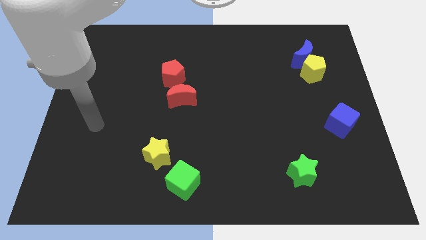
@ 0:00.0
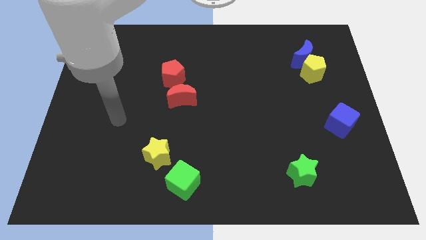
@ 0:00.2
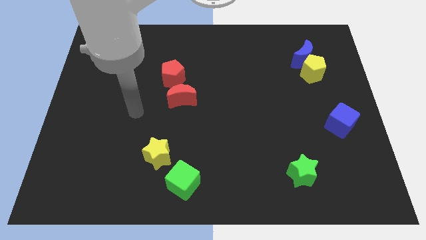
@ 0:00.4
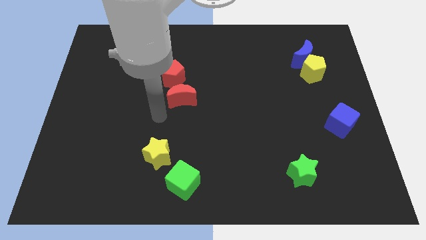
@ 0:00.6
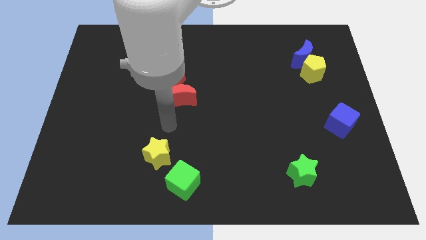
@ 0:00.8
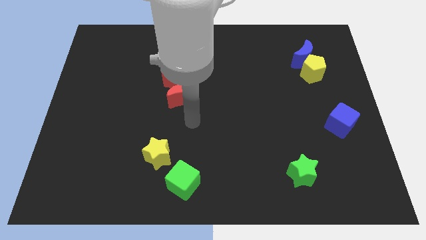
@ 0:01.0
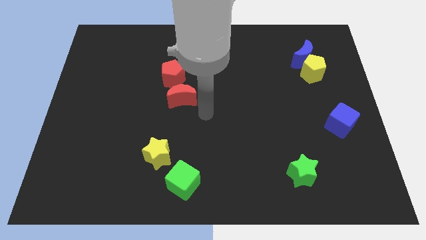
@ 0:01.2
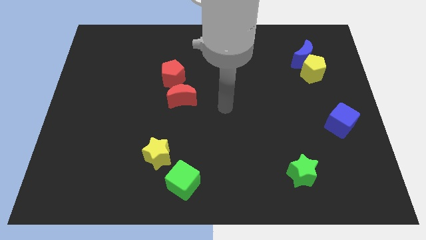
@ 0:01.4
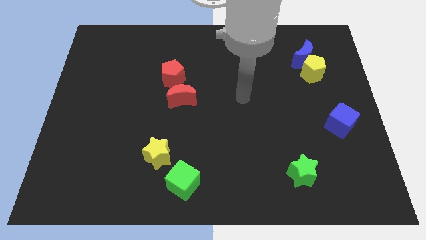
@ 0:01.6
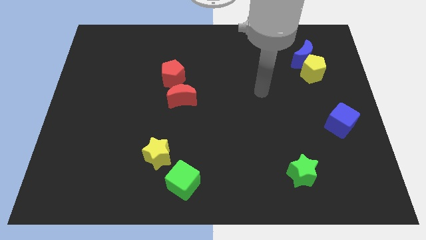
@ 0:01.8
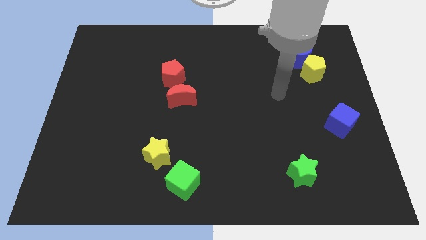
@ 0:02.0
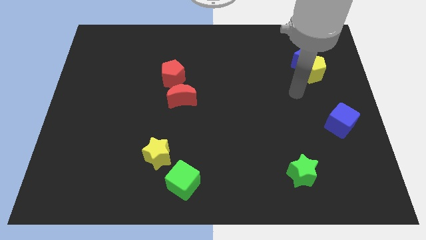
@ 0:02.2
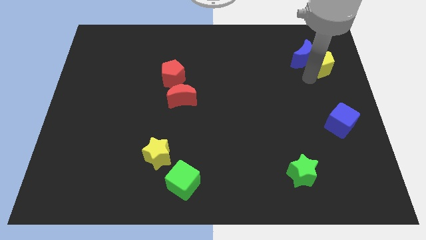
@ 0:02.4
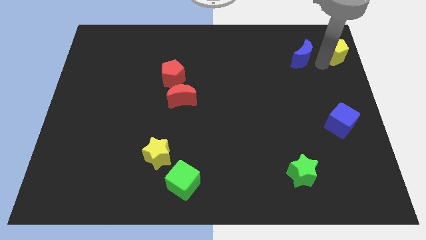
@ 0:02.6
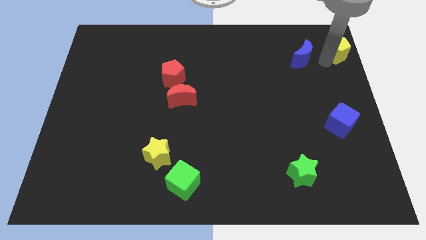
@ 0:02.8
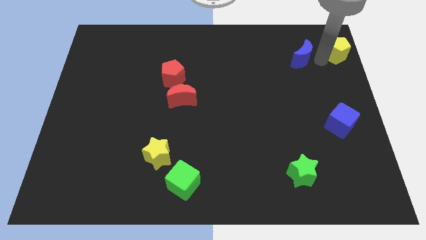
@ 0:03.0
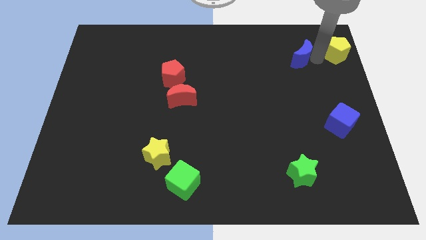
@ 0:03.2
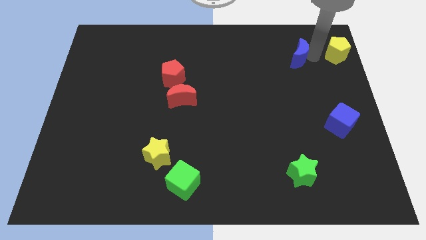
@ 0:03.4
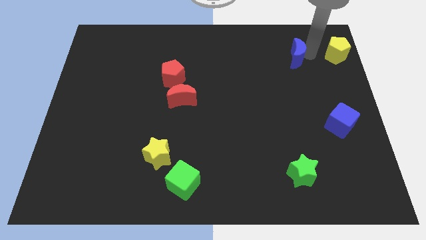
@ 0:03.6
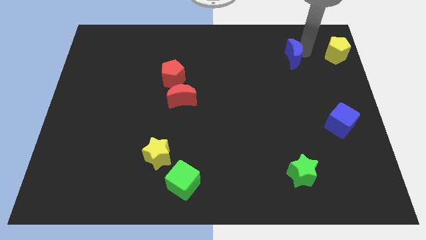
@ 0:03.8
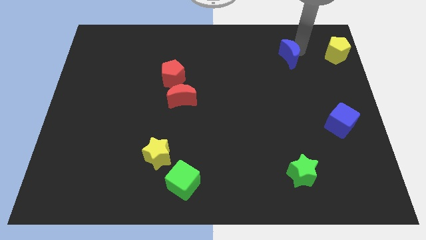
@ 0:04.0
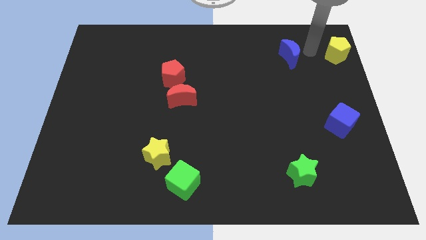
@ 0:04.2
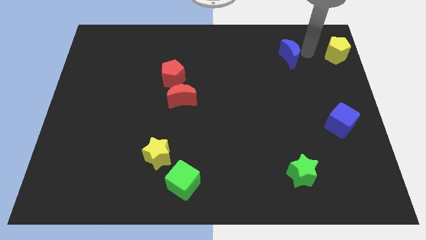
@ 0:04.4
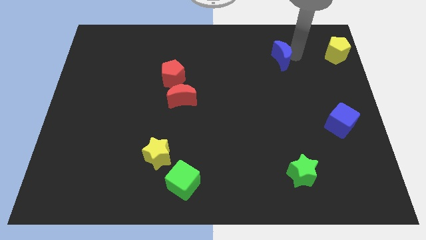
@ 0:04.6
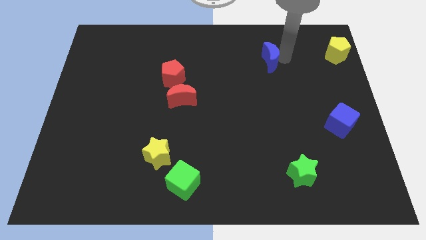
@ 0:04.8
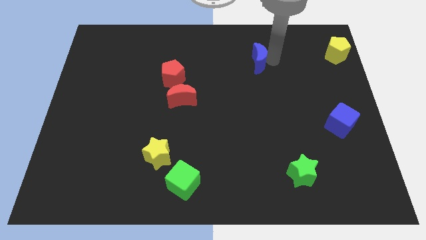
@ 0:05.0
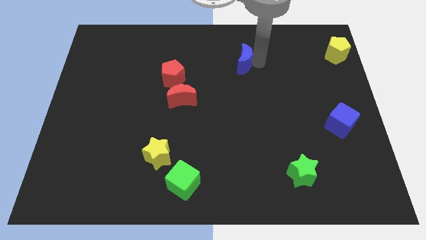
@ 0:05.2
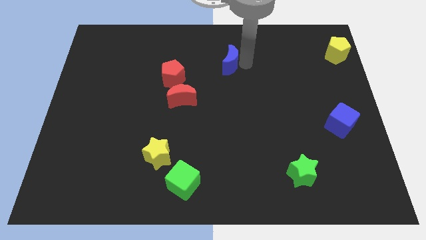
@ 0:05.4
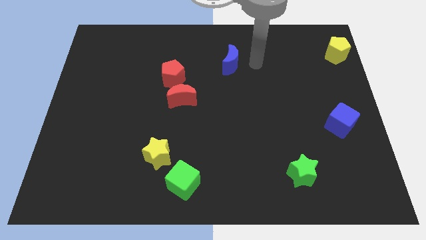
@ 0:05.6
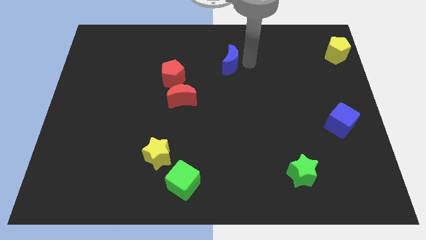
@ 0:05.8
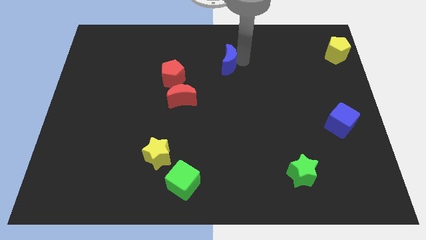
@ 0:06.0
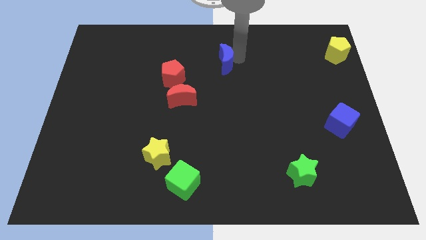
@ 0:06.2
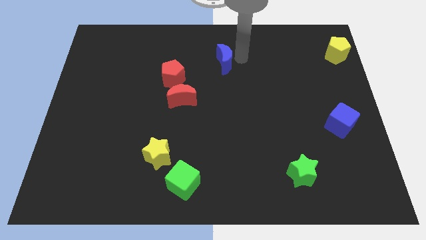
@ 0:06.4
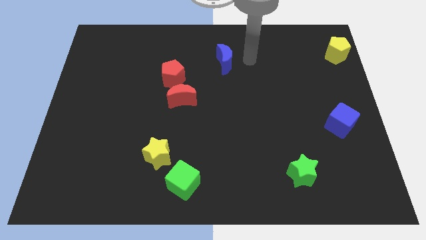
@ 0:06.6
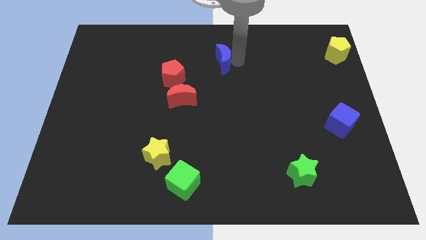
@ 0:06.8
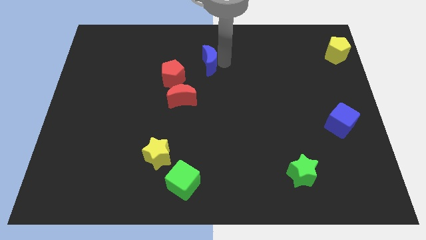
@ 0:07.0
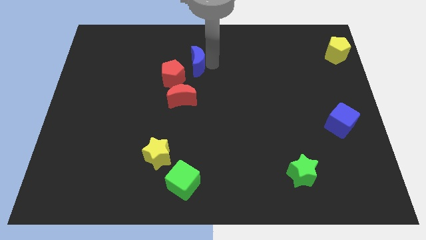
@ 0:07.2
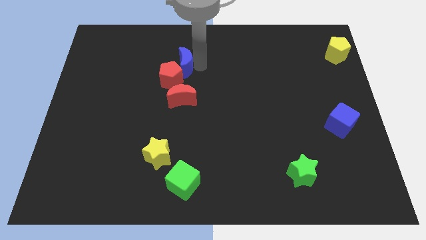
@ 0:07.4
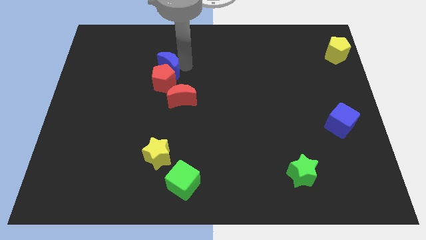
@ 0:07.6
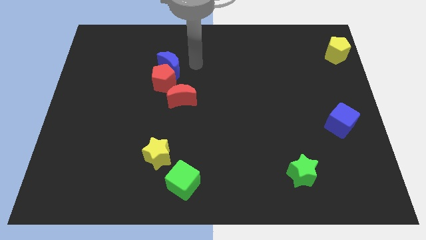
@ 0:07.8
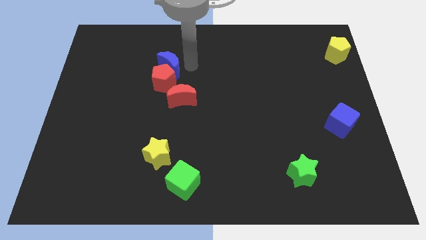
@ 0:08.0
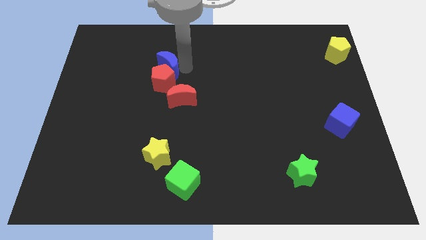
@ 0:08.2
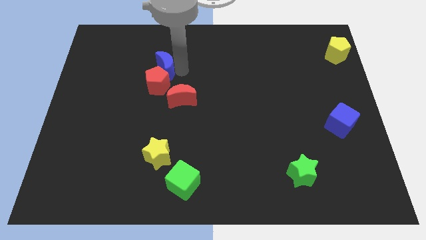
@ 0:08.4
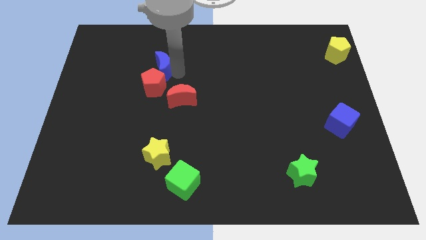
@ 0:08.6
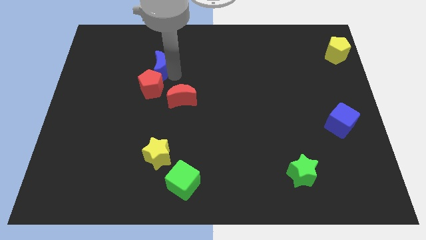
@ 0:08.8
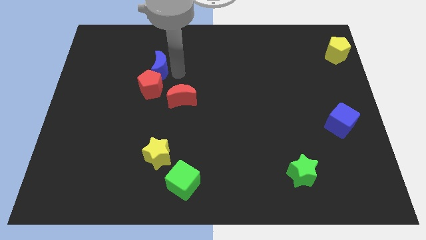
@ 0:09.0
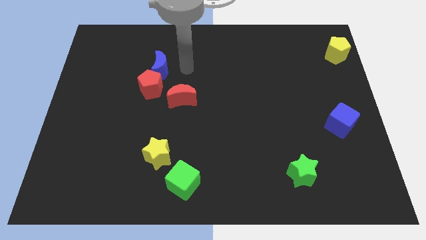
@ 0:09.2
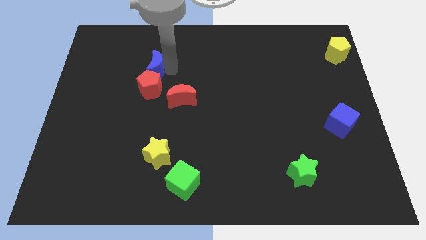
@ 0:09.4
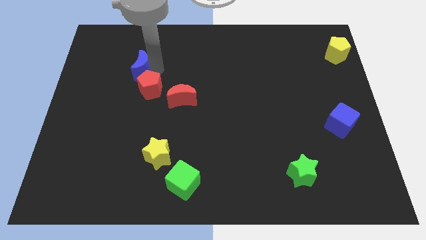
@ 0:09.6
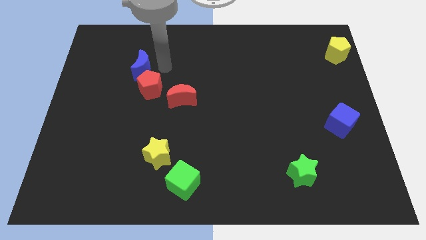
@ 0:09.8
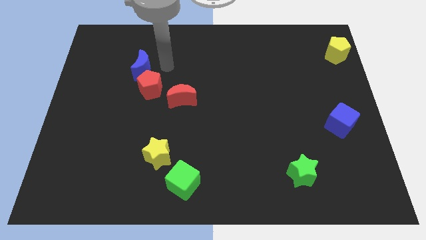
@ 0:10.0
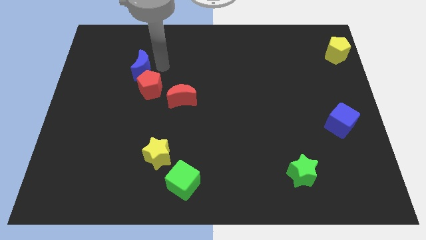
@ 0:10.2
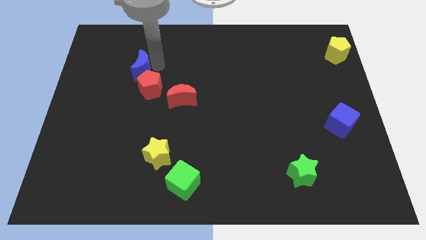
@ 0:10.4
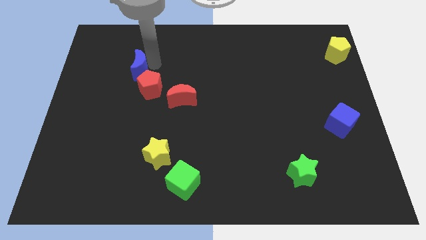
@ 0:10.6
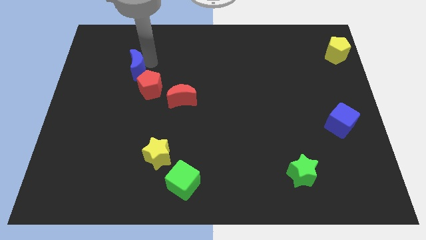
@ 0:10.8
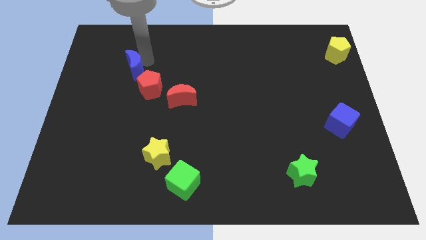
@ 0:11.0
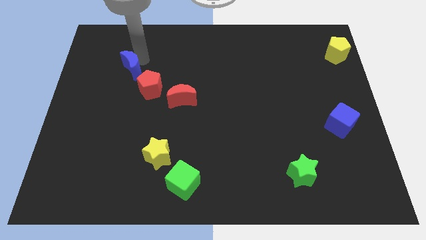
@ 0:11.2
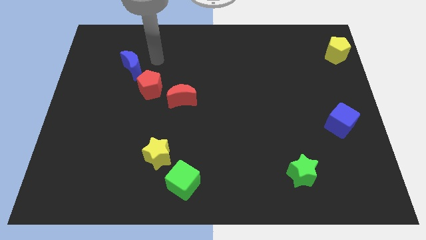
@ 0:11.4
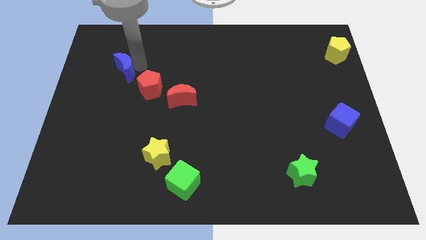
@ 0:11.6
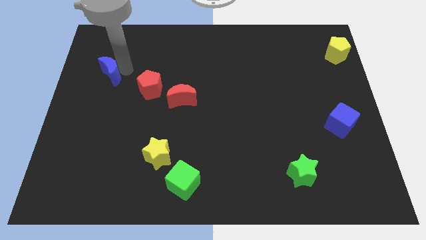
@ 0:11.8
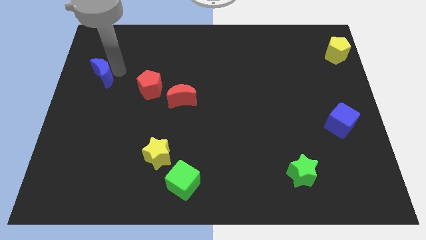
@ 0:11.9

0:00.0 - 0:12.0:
push the blue moon to the left side of the board

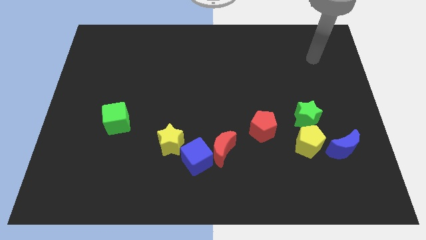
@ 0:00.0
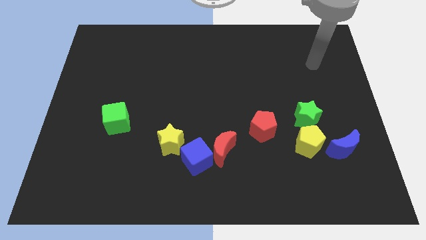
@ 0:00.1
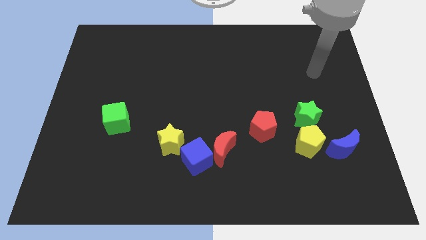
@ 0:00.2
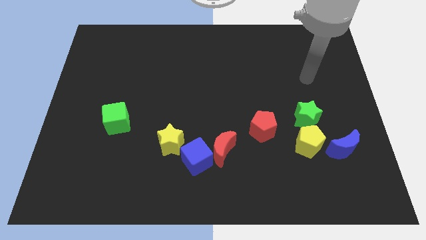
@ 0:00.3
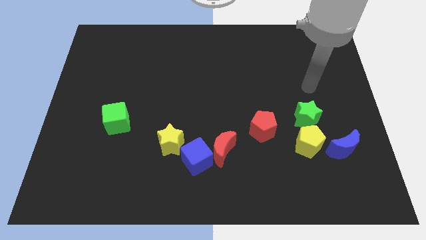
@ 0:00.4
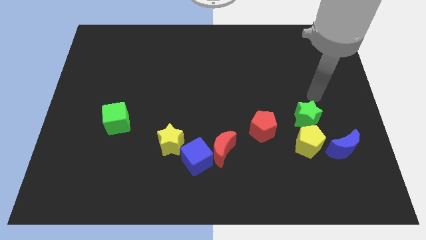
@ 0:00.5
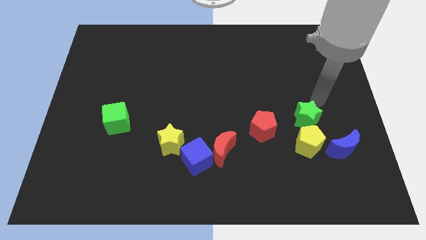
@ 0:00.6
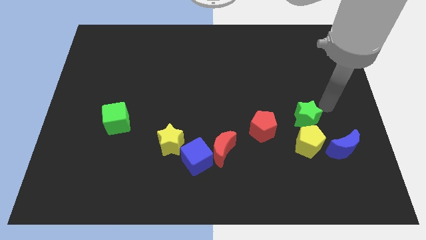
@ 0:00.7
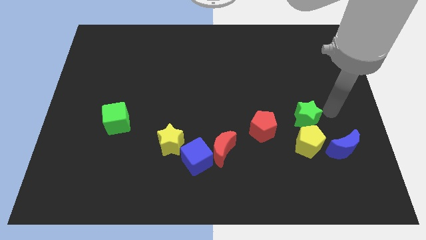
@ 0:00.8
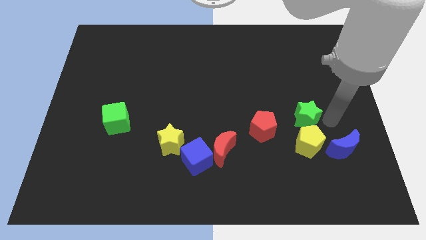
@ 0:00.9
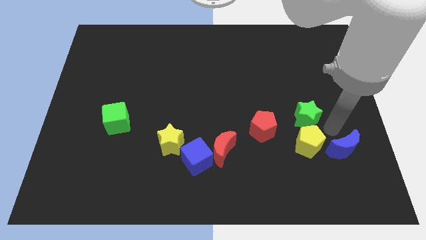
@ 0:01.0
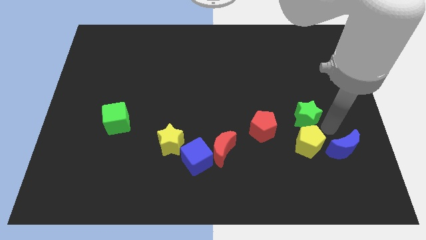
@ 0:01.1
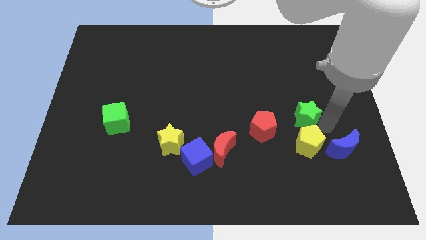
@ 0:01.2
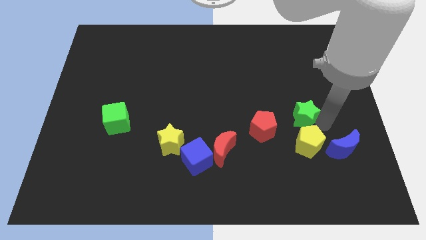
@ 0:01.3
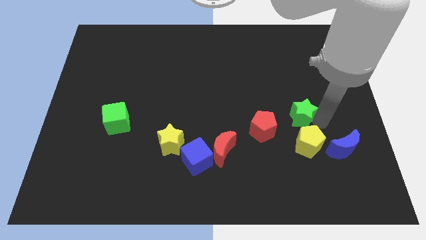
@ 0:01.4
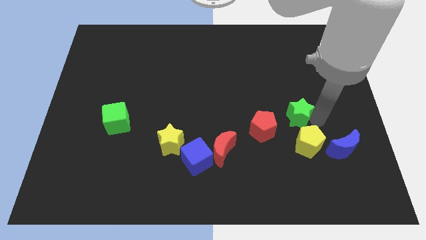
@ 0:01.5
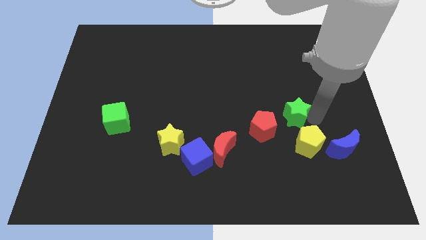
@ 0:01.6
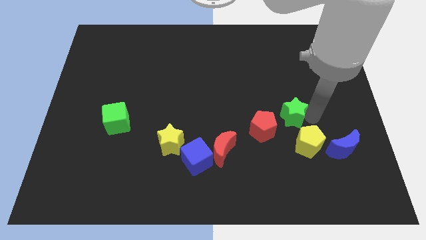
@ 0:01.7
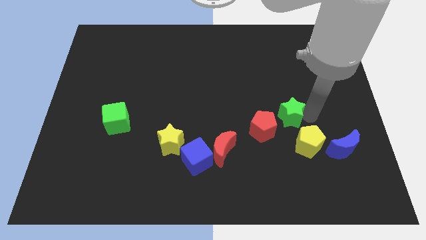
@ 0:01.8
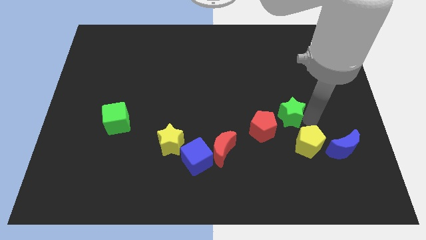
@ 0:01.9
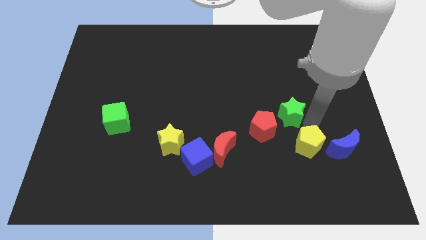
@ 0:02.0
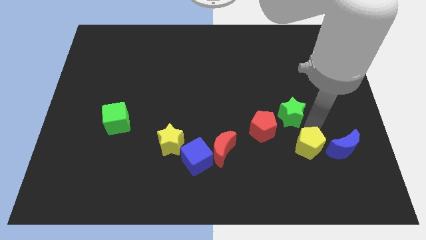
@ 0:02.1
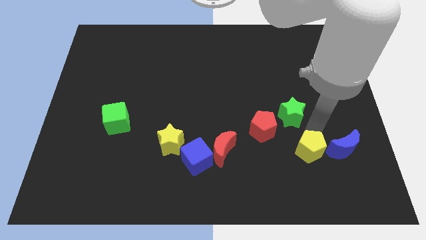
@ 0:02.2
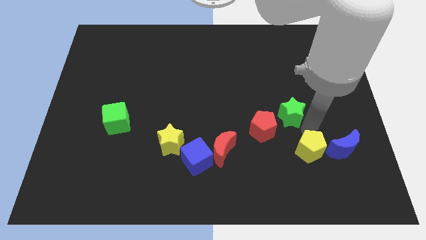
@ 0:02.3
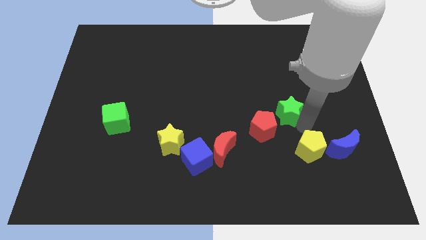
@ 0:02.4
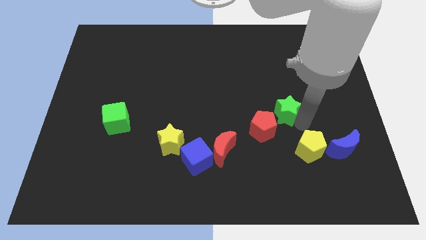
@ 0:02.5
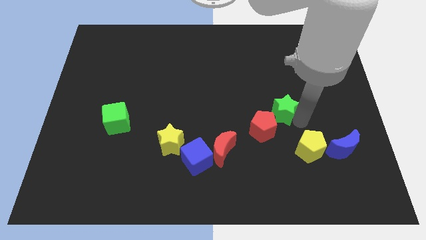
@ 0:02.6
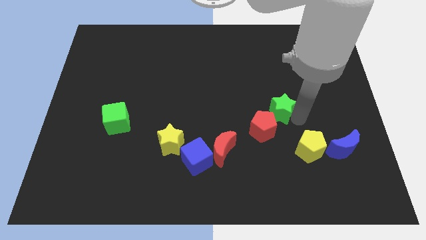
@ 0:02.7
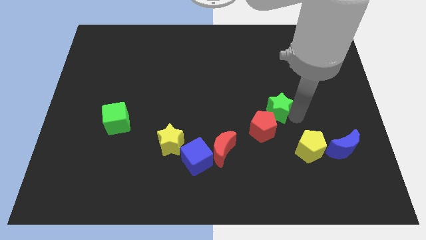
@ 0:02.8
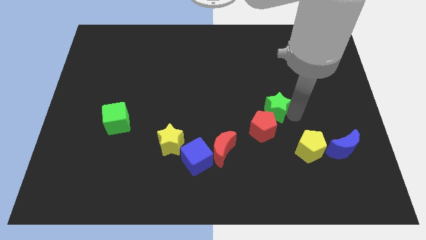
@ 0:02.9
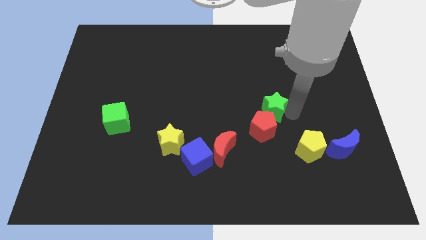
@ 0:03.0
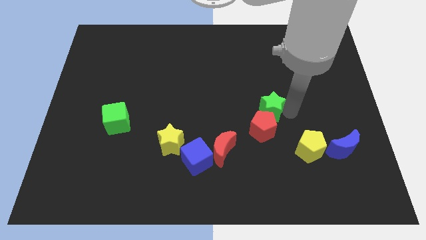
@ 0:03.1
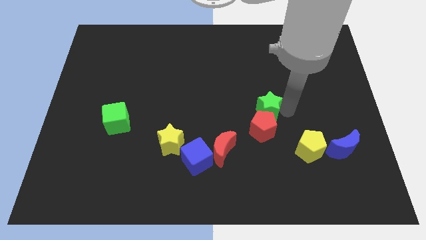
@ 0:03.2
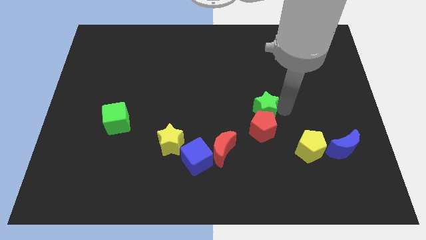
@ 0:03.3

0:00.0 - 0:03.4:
push the green star to the middle
